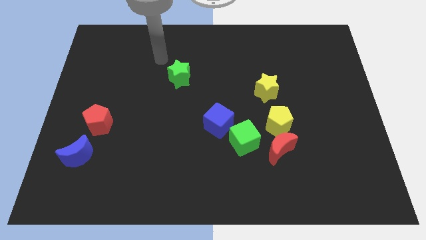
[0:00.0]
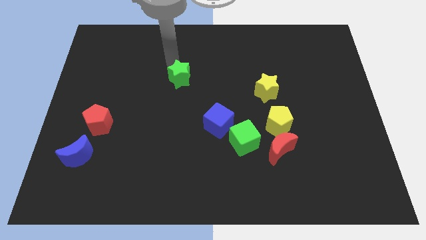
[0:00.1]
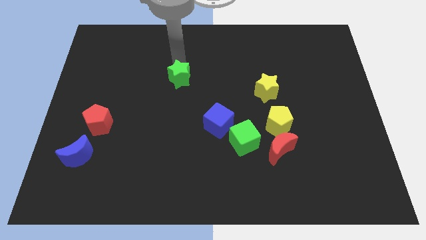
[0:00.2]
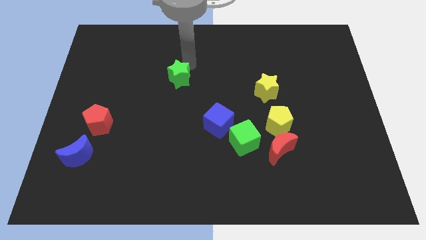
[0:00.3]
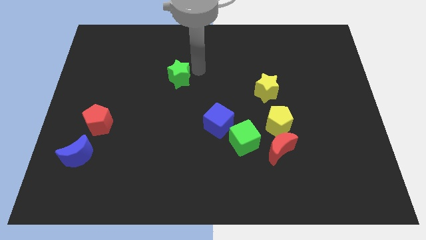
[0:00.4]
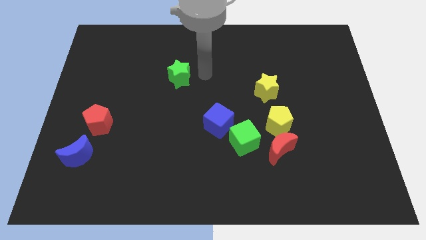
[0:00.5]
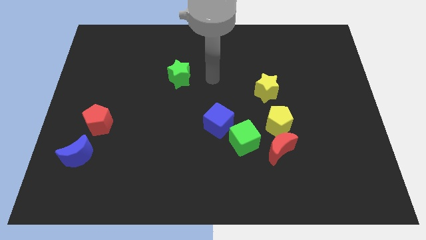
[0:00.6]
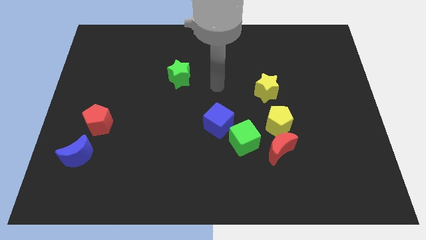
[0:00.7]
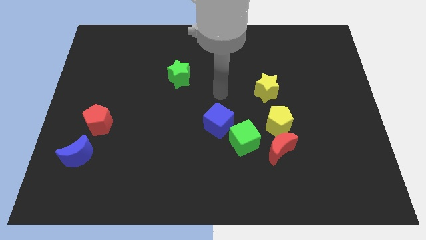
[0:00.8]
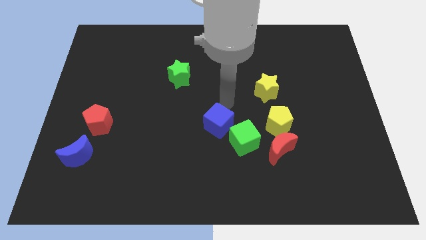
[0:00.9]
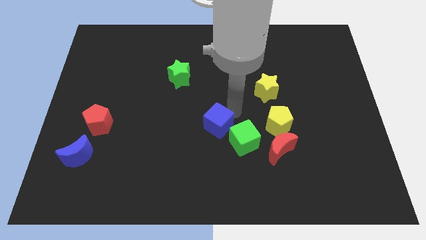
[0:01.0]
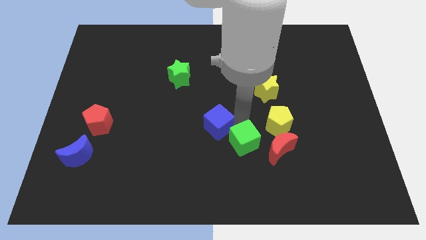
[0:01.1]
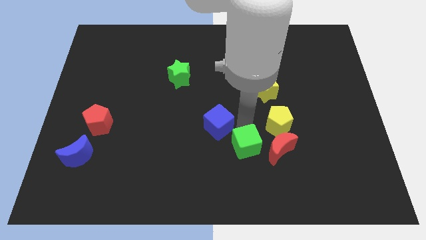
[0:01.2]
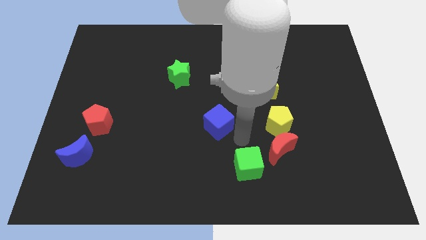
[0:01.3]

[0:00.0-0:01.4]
separate the blue cube from the green cube

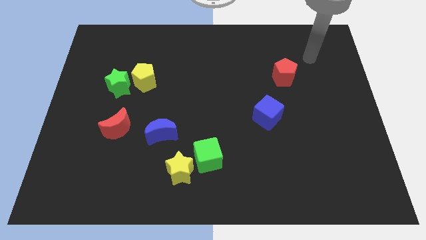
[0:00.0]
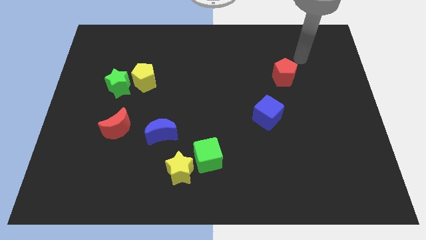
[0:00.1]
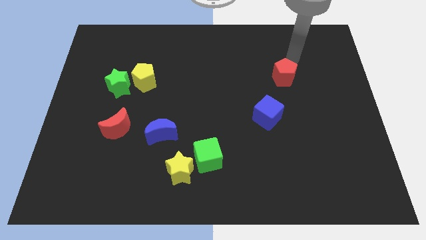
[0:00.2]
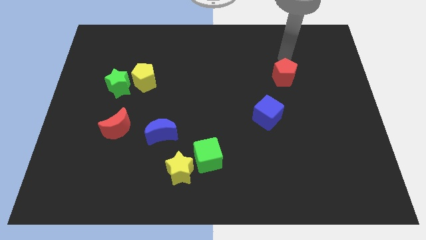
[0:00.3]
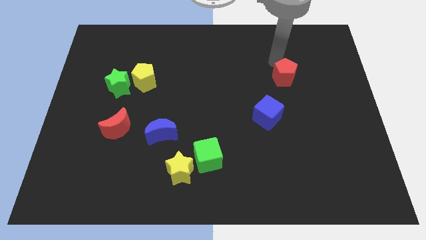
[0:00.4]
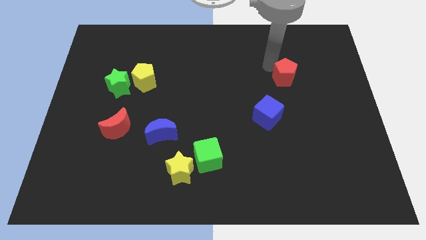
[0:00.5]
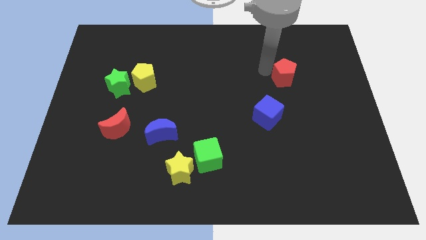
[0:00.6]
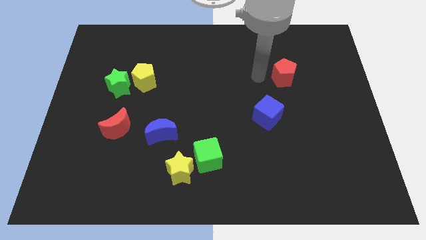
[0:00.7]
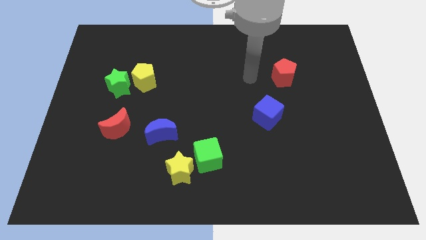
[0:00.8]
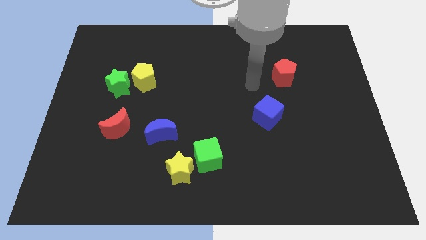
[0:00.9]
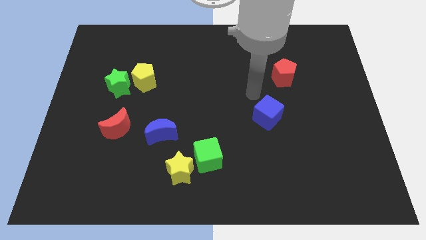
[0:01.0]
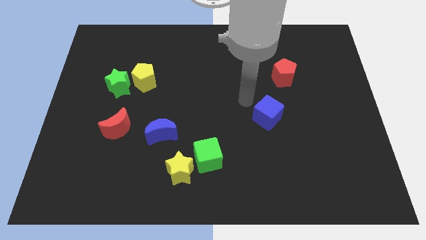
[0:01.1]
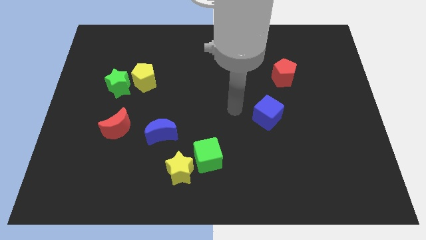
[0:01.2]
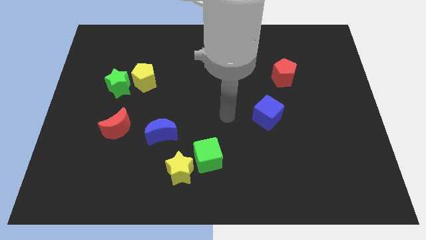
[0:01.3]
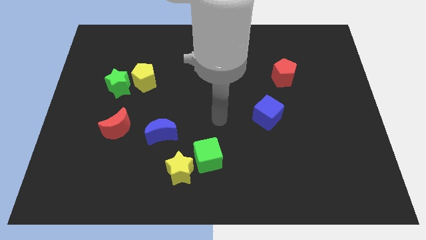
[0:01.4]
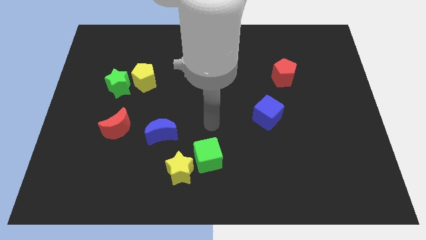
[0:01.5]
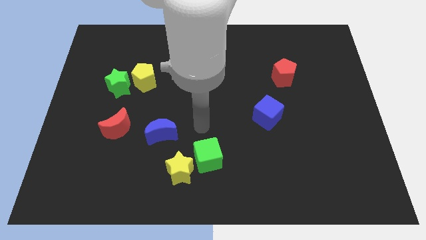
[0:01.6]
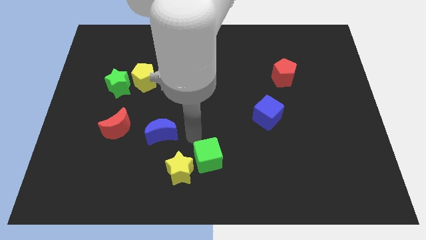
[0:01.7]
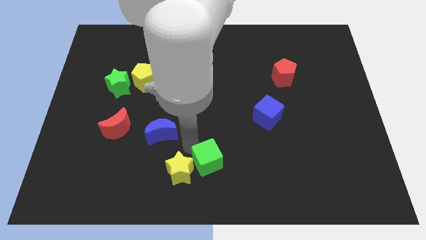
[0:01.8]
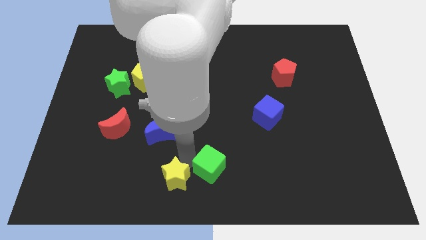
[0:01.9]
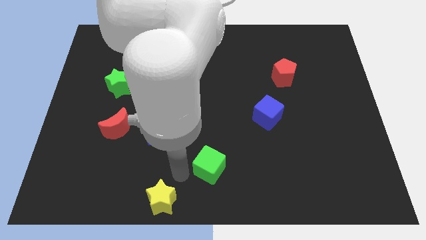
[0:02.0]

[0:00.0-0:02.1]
pull the green cube apart from the yellow star

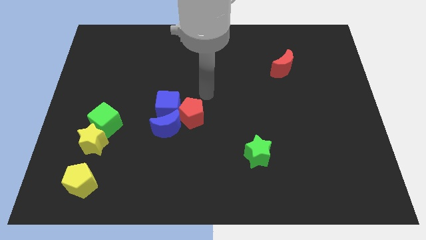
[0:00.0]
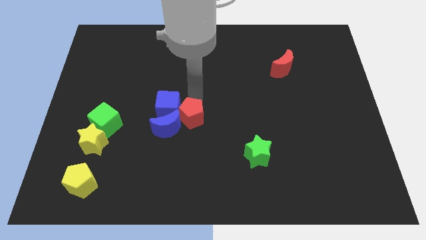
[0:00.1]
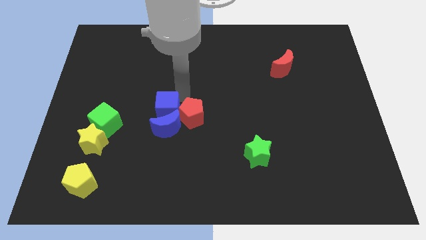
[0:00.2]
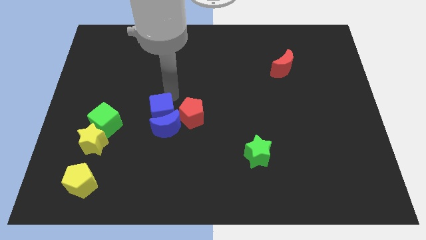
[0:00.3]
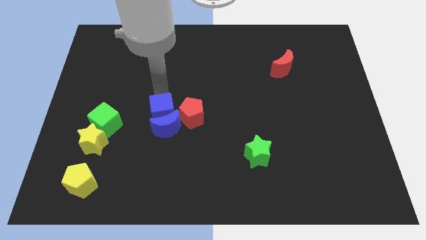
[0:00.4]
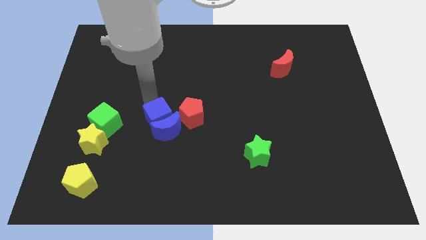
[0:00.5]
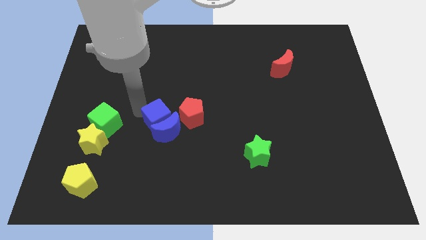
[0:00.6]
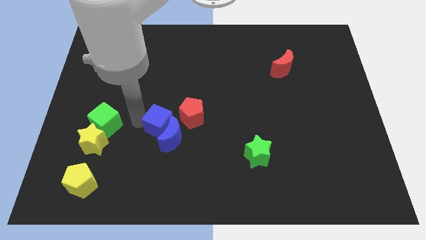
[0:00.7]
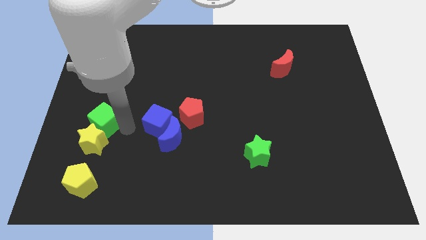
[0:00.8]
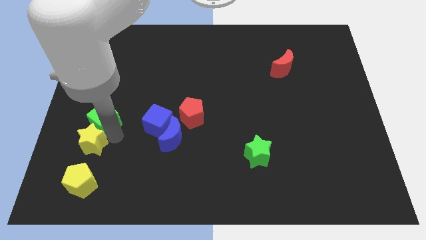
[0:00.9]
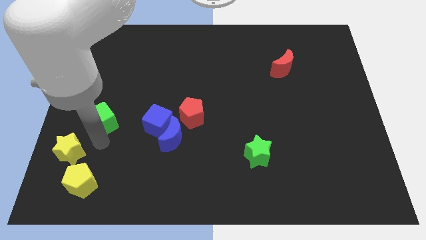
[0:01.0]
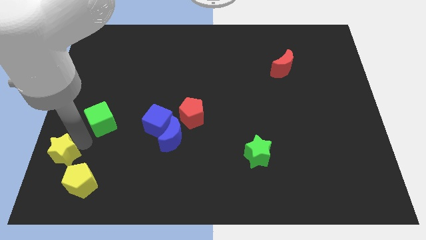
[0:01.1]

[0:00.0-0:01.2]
separate the green cube from the yellow star

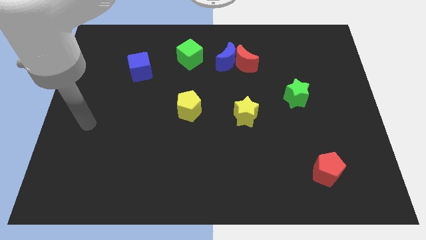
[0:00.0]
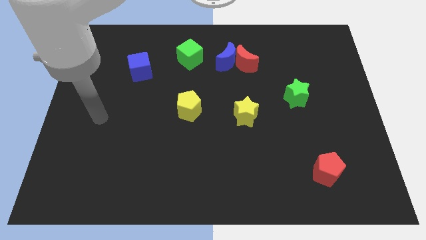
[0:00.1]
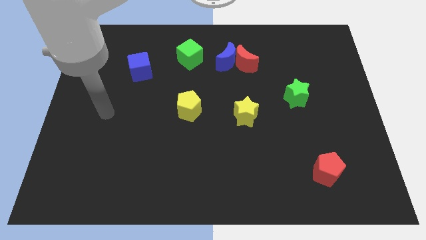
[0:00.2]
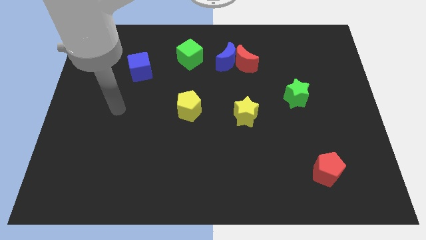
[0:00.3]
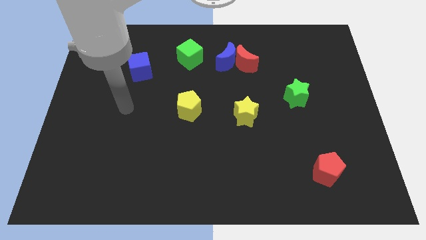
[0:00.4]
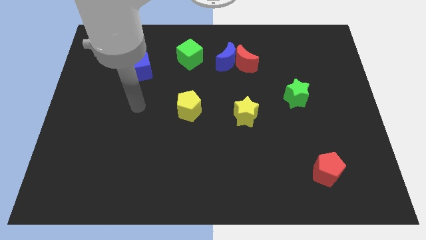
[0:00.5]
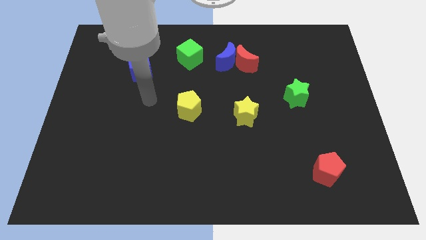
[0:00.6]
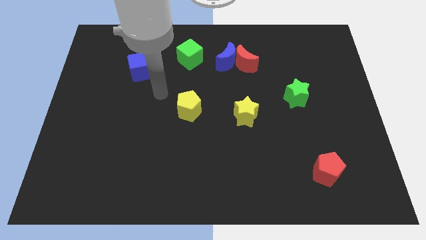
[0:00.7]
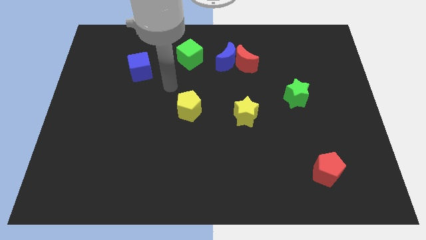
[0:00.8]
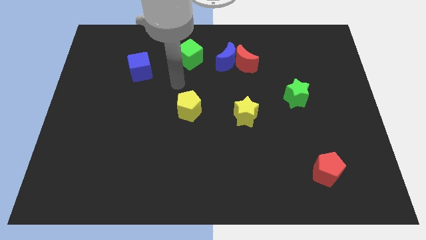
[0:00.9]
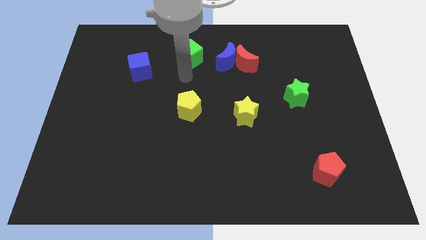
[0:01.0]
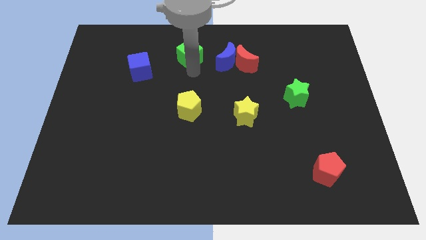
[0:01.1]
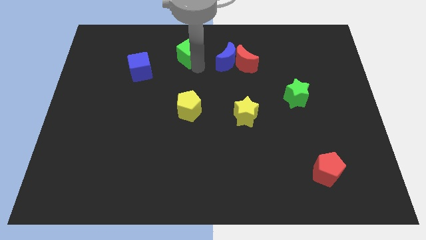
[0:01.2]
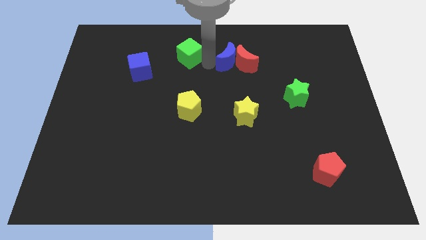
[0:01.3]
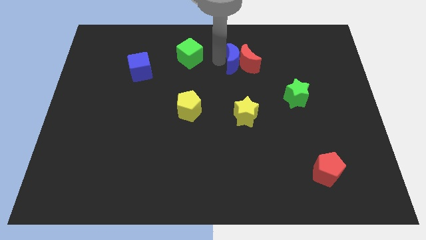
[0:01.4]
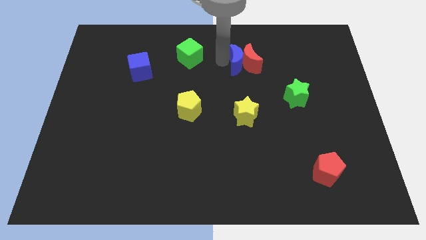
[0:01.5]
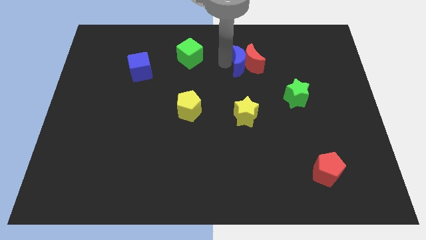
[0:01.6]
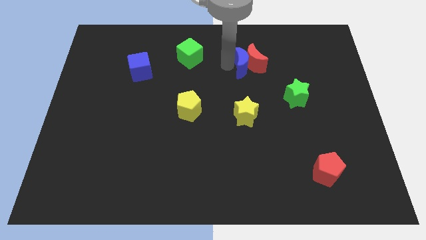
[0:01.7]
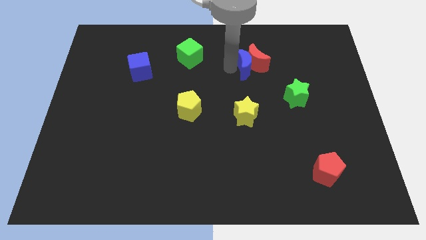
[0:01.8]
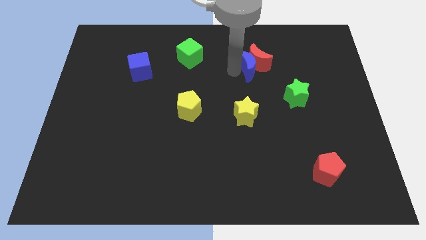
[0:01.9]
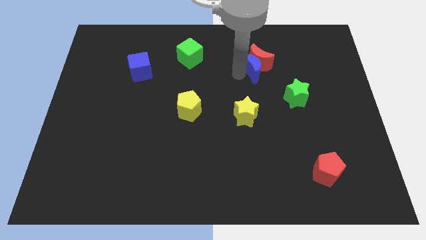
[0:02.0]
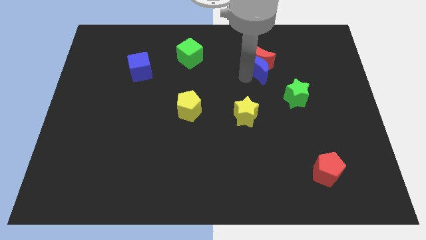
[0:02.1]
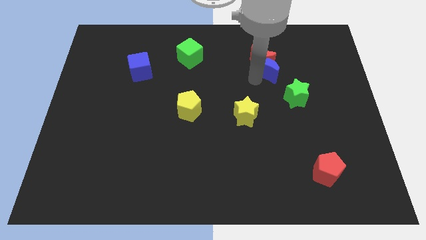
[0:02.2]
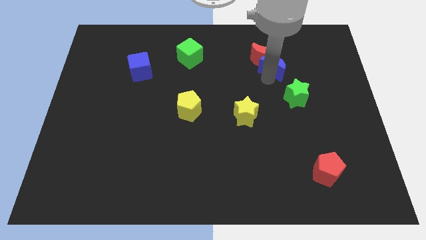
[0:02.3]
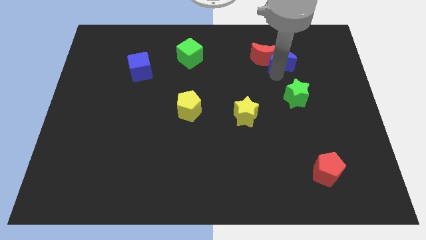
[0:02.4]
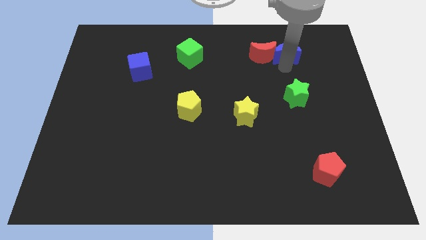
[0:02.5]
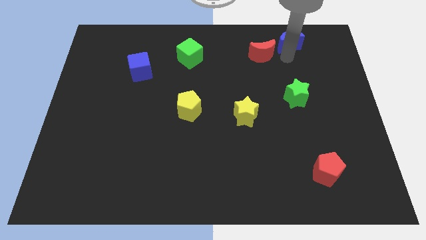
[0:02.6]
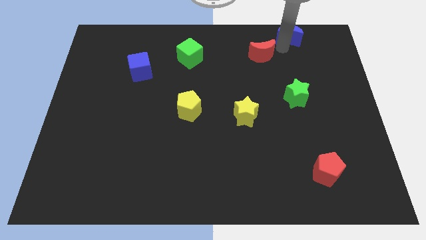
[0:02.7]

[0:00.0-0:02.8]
separate the red moon from the blue moon

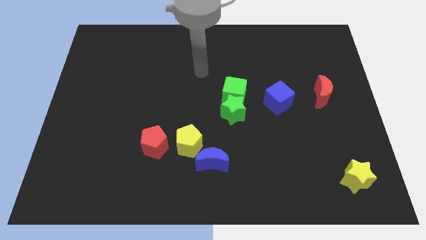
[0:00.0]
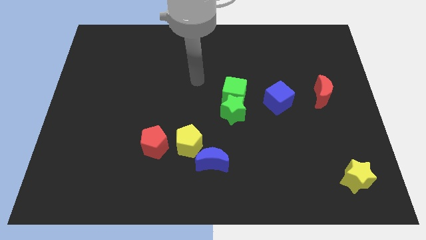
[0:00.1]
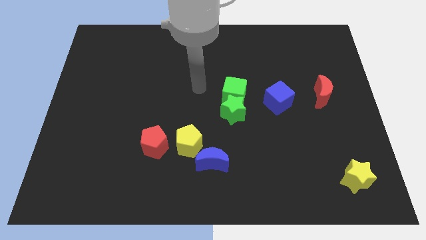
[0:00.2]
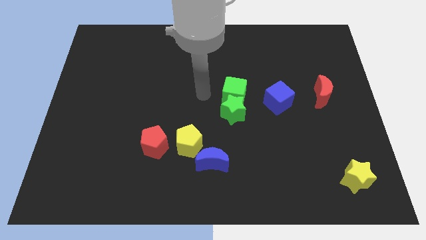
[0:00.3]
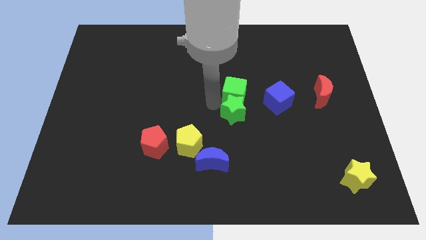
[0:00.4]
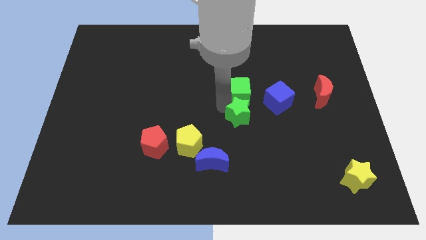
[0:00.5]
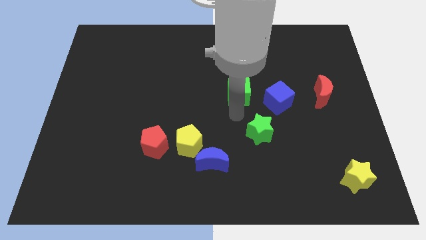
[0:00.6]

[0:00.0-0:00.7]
move the green cube away from the green star

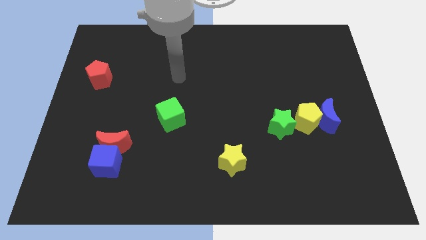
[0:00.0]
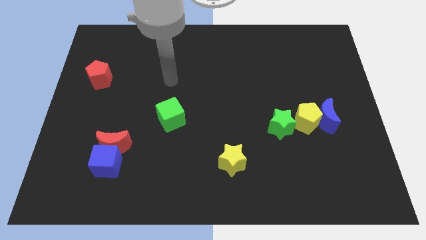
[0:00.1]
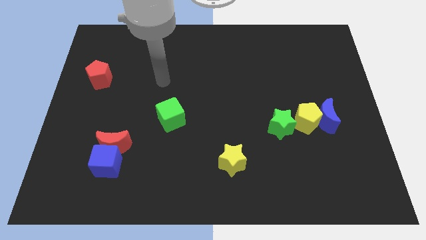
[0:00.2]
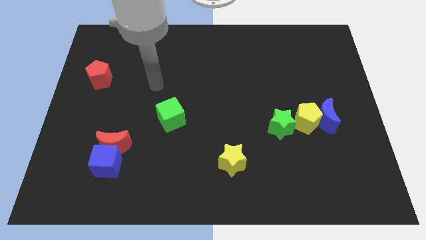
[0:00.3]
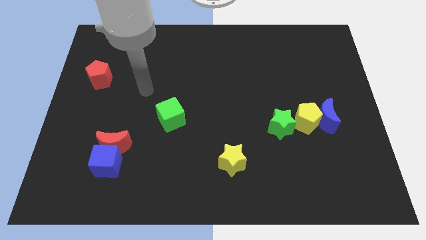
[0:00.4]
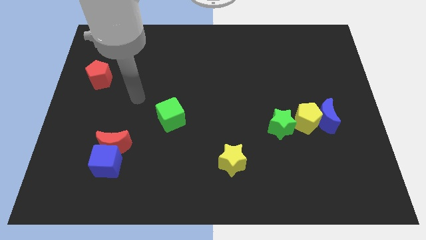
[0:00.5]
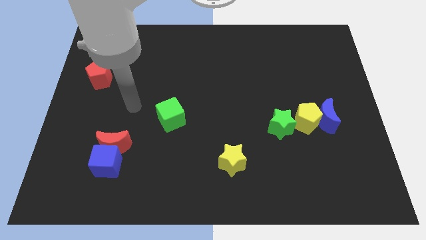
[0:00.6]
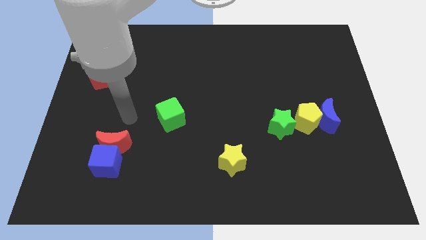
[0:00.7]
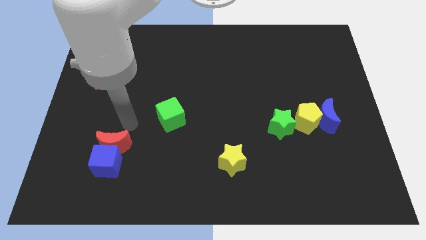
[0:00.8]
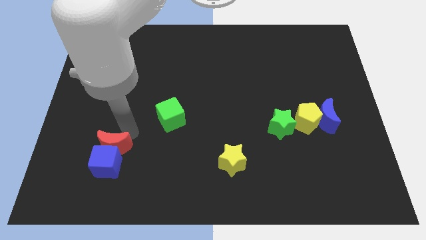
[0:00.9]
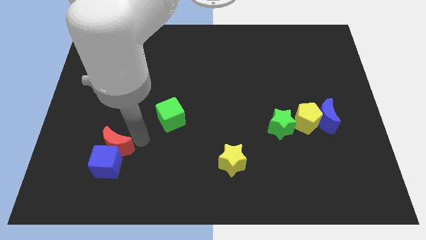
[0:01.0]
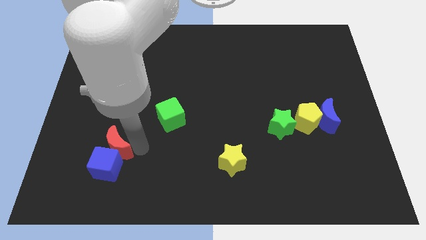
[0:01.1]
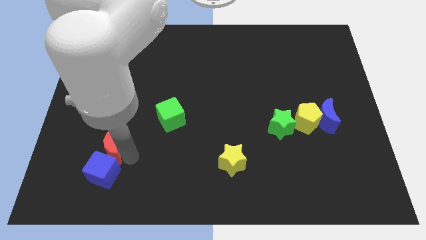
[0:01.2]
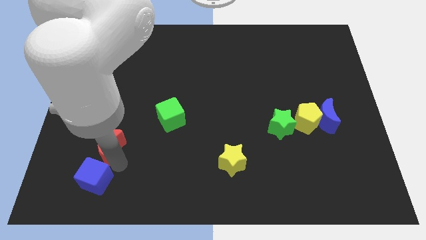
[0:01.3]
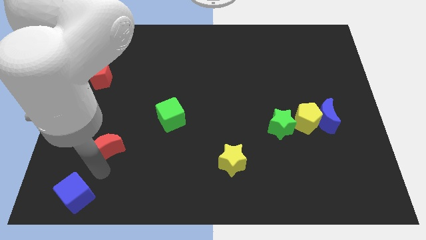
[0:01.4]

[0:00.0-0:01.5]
pull the red moon apart from the blue cube
